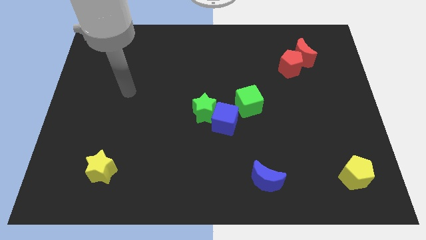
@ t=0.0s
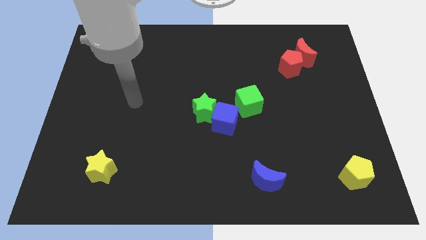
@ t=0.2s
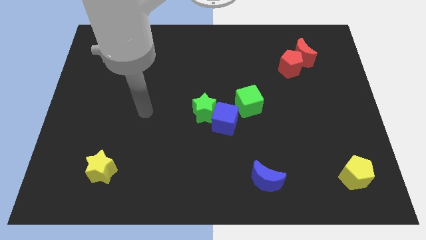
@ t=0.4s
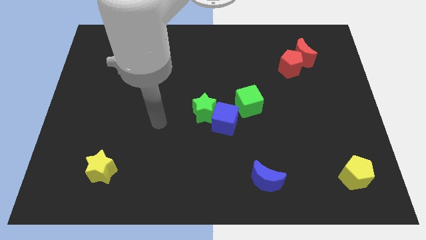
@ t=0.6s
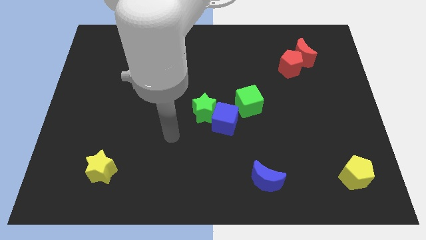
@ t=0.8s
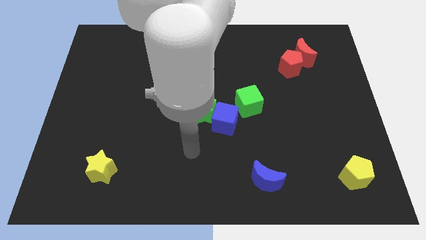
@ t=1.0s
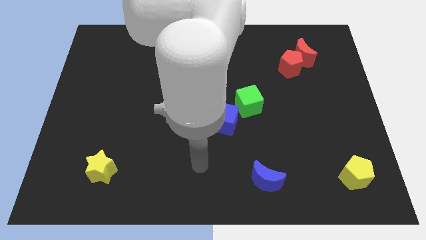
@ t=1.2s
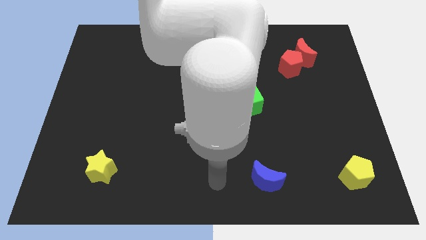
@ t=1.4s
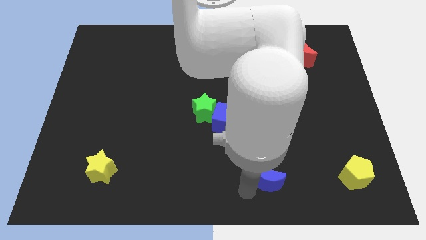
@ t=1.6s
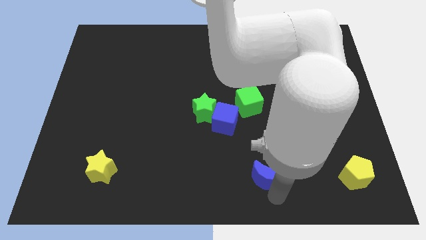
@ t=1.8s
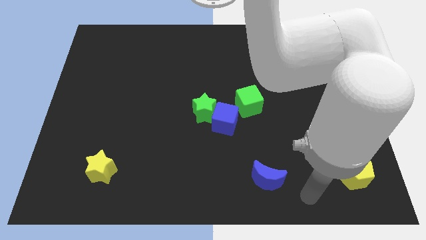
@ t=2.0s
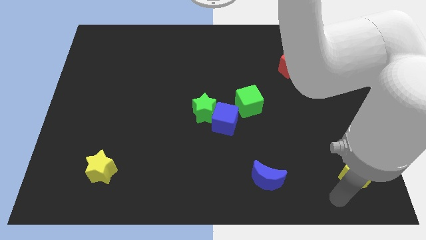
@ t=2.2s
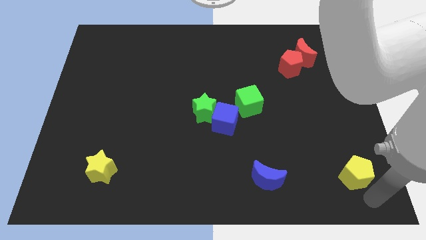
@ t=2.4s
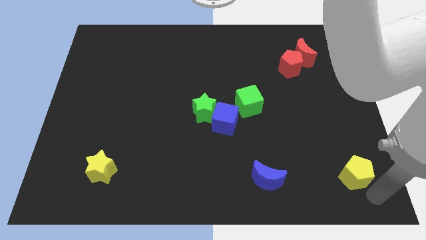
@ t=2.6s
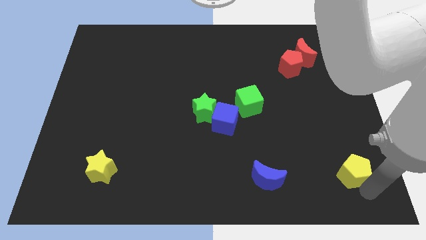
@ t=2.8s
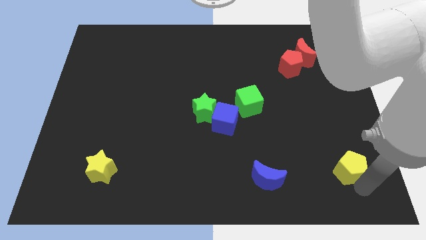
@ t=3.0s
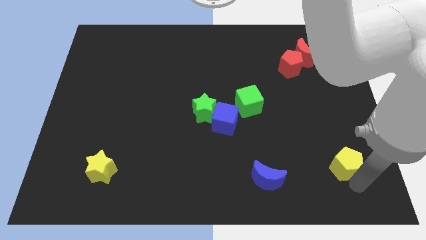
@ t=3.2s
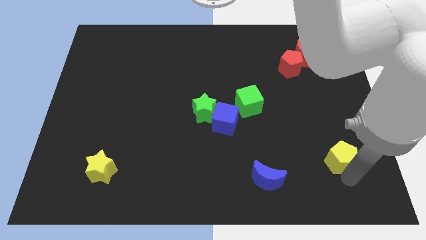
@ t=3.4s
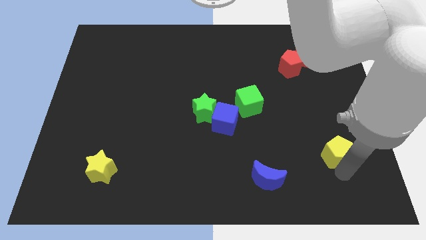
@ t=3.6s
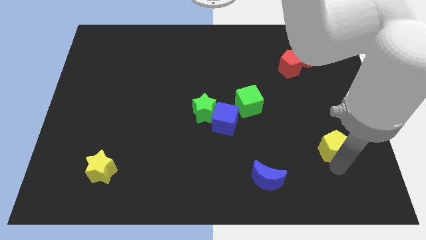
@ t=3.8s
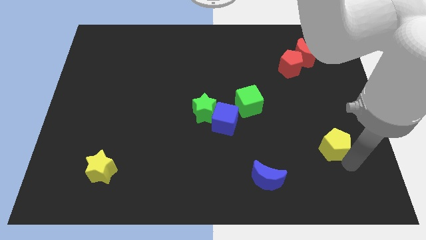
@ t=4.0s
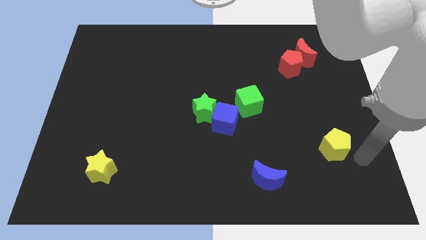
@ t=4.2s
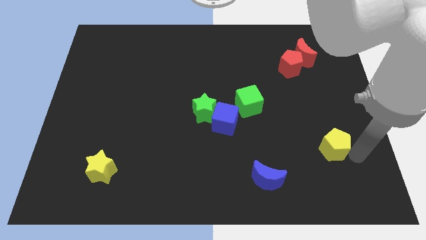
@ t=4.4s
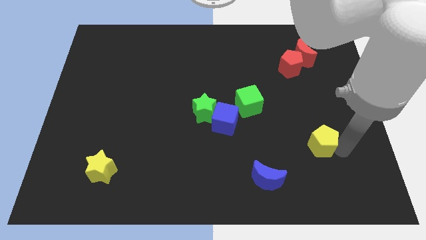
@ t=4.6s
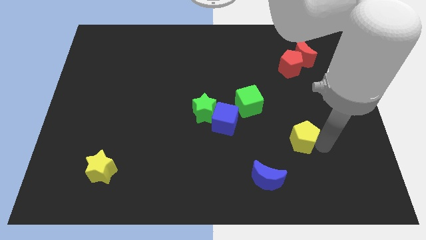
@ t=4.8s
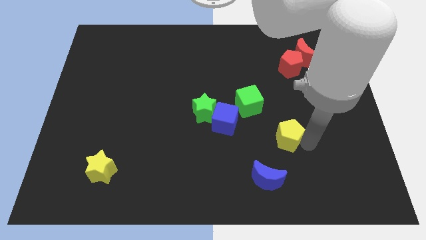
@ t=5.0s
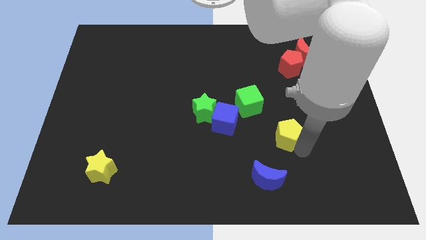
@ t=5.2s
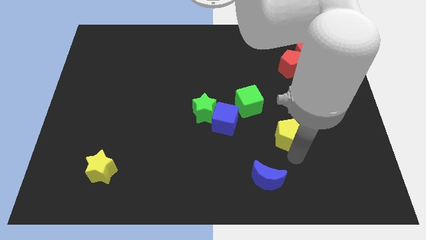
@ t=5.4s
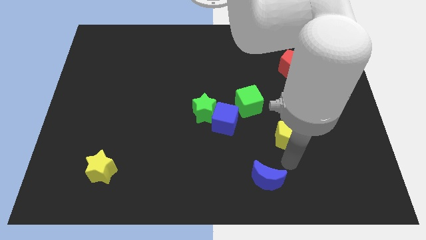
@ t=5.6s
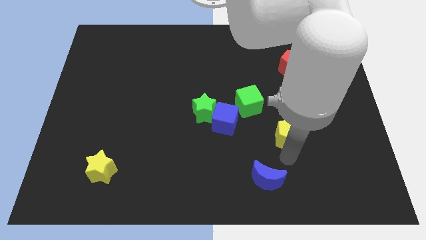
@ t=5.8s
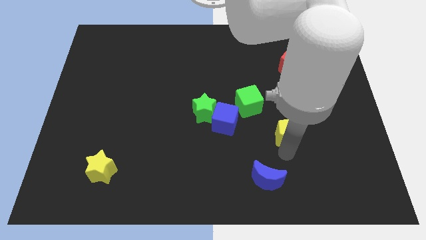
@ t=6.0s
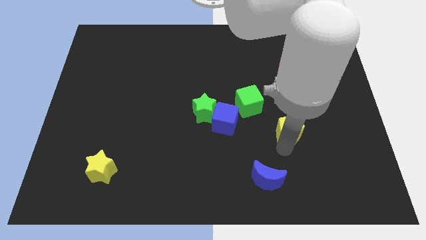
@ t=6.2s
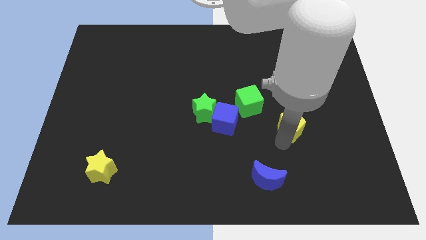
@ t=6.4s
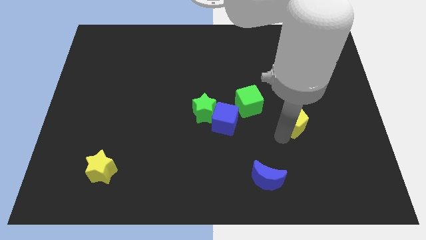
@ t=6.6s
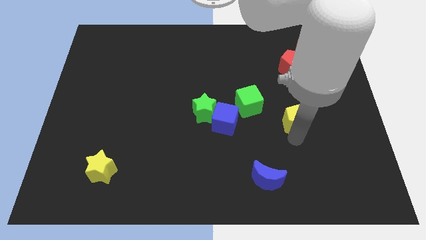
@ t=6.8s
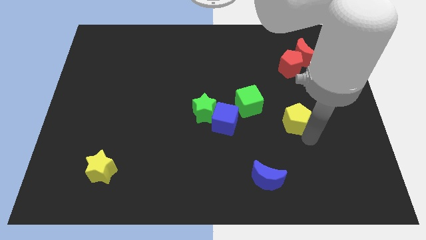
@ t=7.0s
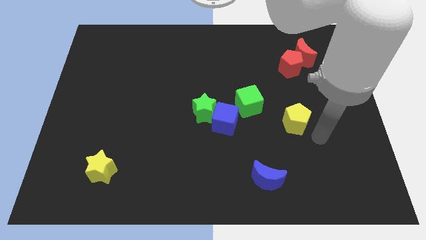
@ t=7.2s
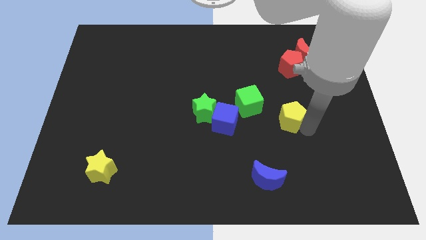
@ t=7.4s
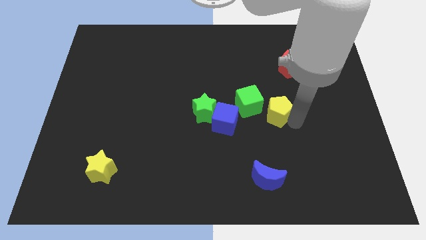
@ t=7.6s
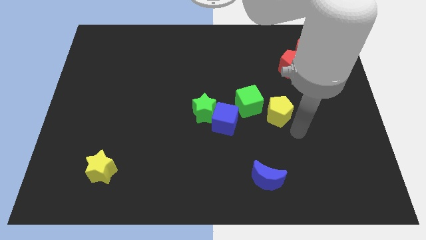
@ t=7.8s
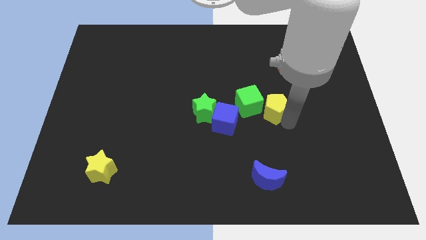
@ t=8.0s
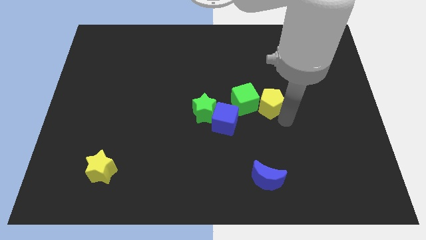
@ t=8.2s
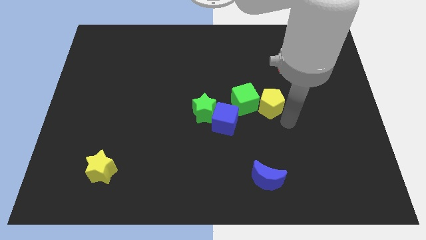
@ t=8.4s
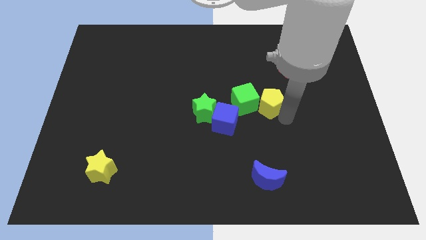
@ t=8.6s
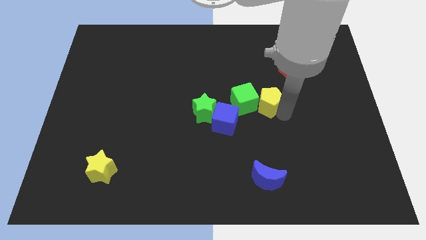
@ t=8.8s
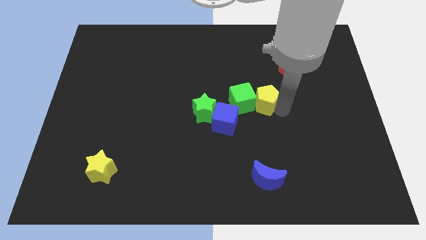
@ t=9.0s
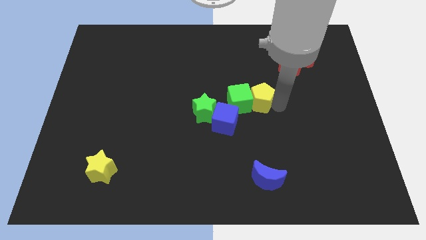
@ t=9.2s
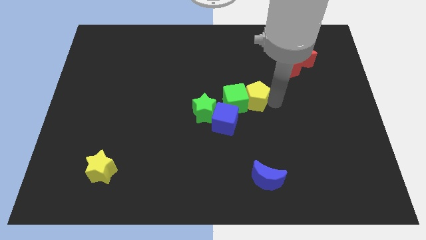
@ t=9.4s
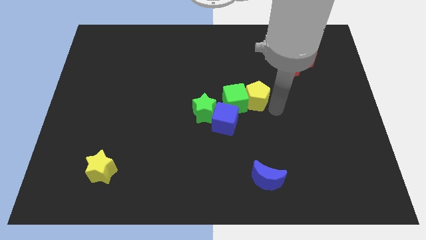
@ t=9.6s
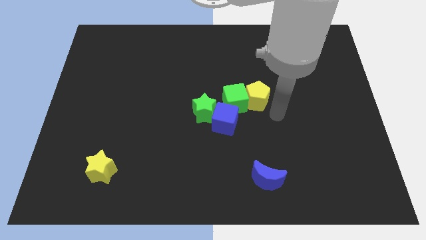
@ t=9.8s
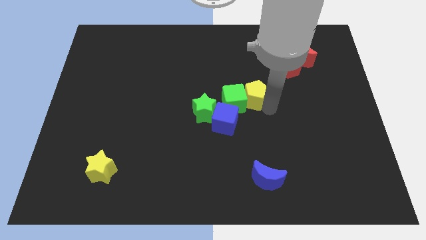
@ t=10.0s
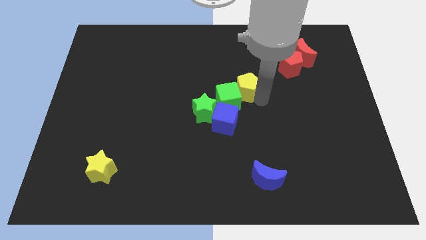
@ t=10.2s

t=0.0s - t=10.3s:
put the yellow pentagon to the top right of the green star

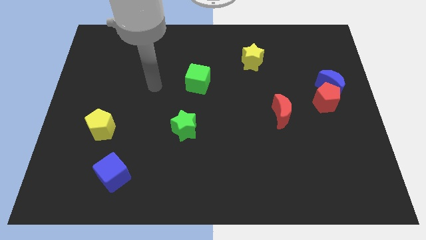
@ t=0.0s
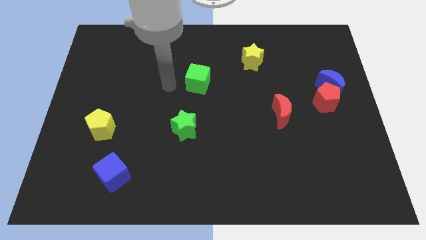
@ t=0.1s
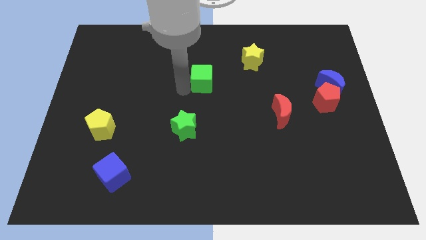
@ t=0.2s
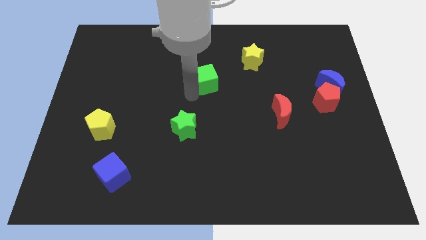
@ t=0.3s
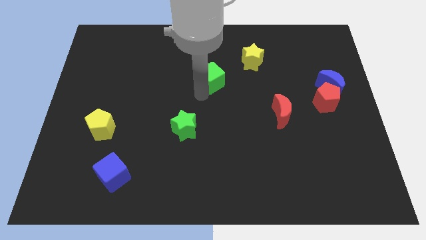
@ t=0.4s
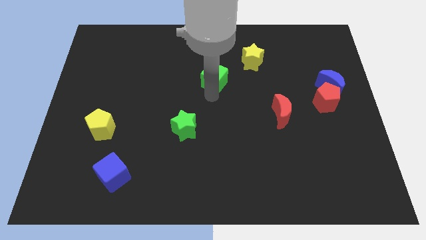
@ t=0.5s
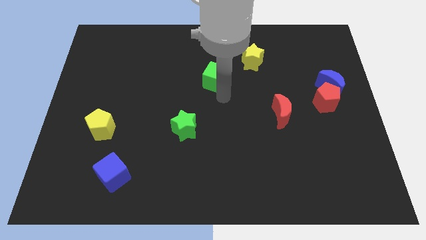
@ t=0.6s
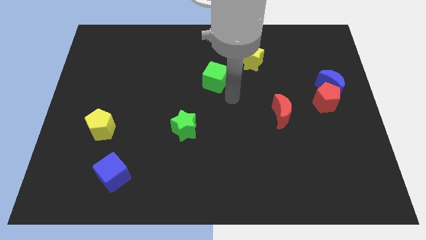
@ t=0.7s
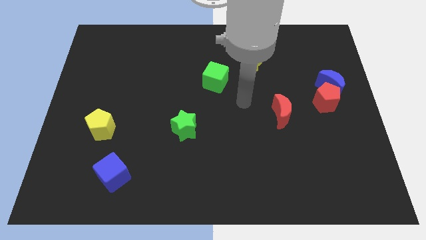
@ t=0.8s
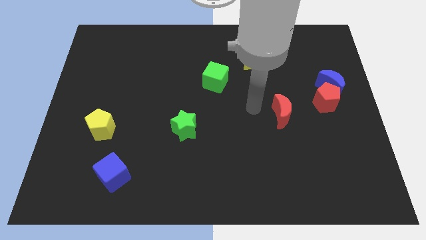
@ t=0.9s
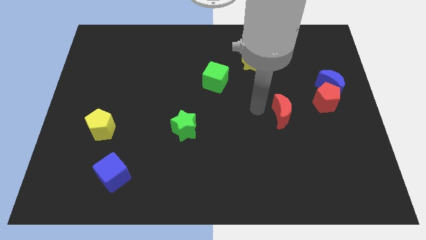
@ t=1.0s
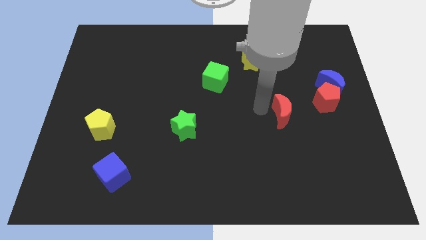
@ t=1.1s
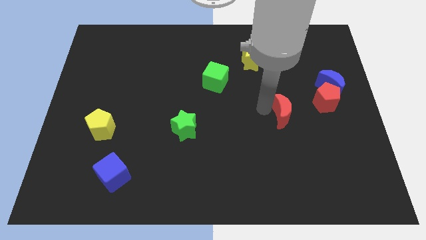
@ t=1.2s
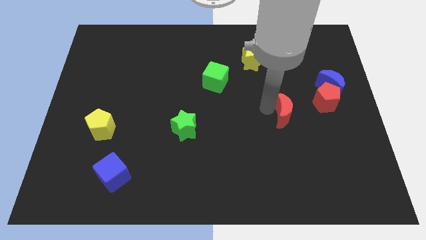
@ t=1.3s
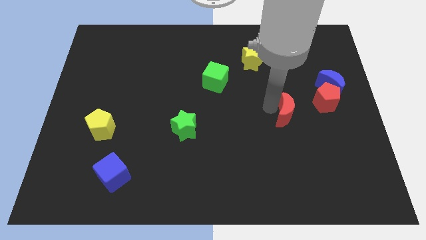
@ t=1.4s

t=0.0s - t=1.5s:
move the red moon to the bottom left of the red pentagon

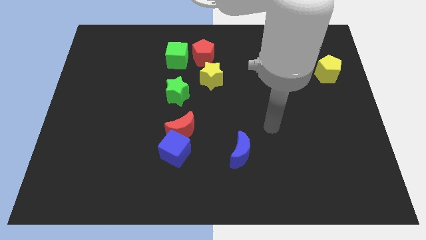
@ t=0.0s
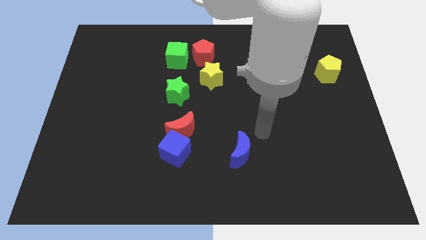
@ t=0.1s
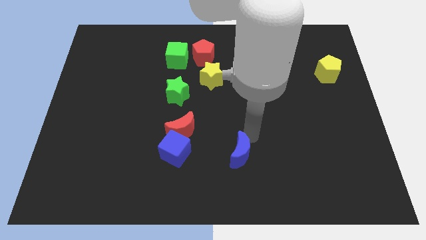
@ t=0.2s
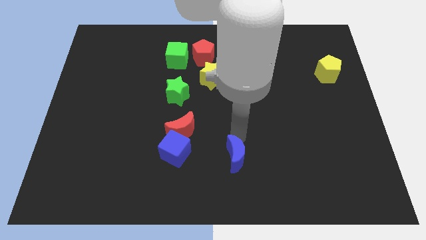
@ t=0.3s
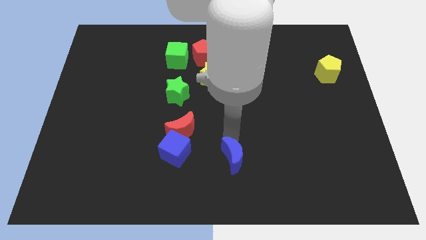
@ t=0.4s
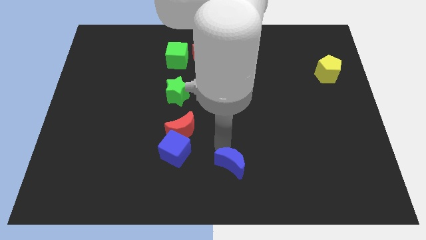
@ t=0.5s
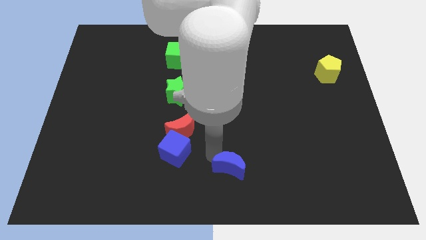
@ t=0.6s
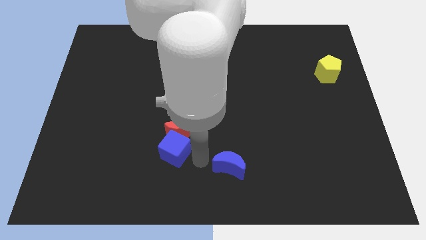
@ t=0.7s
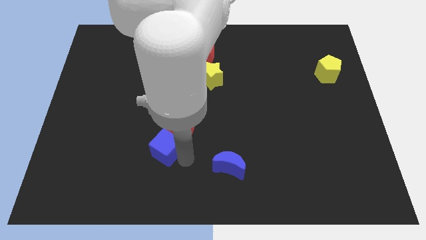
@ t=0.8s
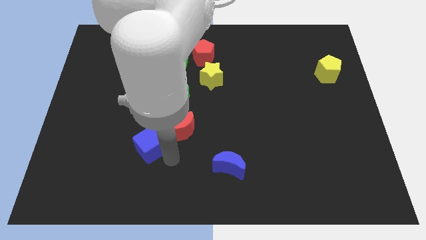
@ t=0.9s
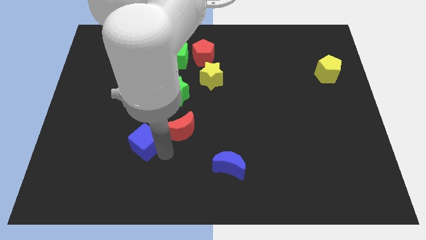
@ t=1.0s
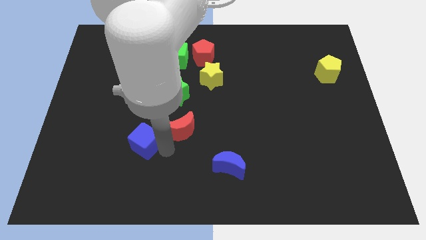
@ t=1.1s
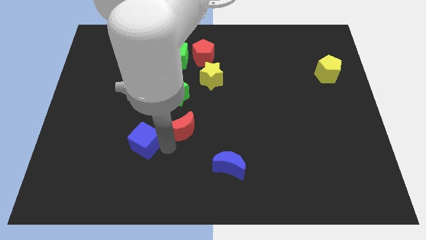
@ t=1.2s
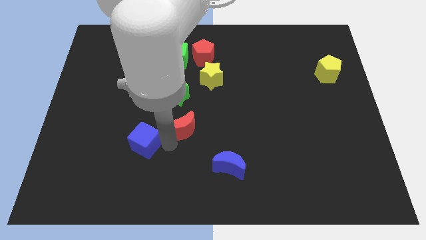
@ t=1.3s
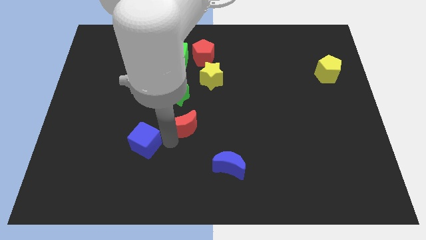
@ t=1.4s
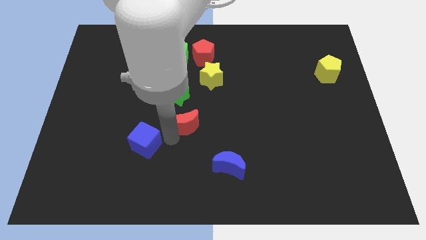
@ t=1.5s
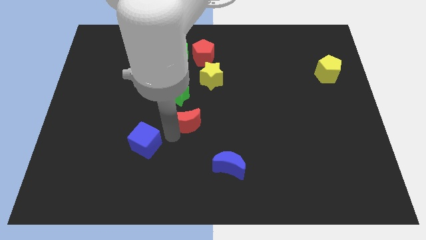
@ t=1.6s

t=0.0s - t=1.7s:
slide the red moon diagonally down and to the right of the green star
